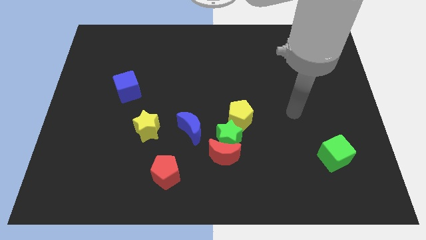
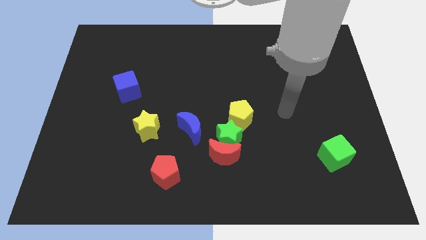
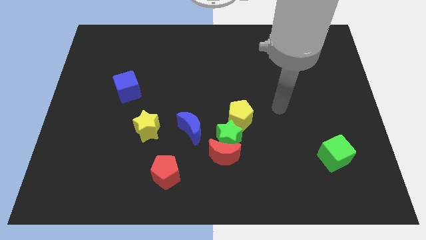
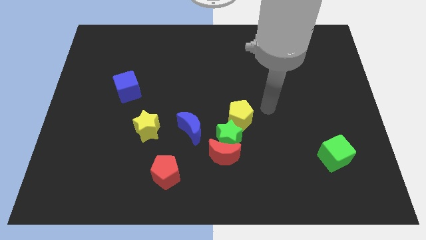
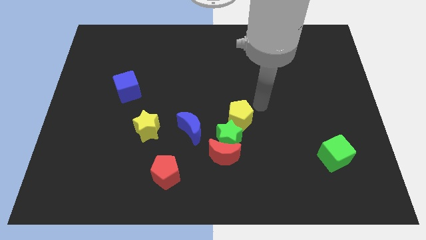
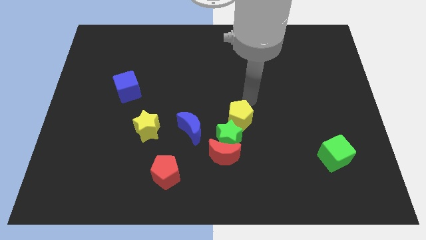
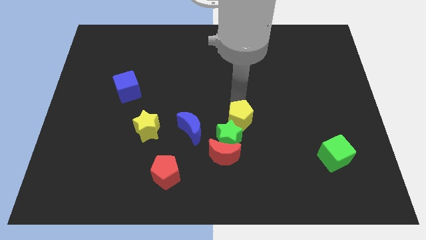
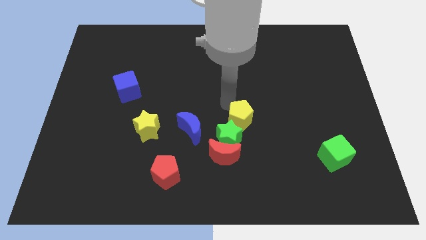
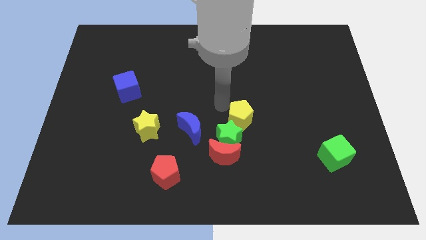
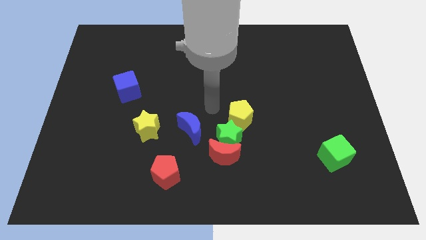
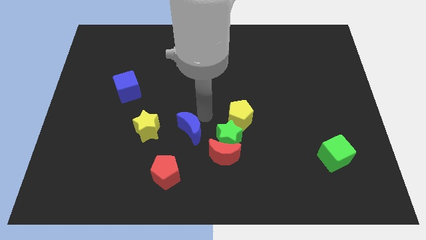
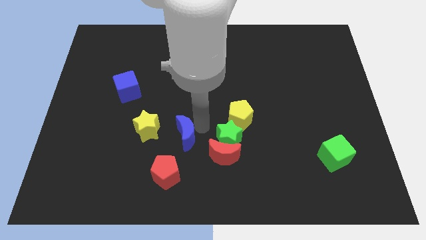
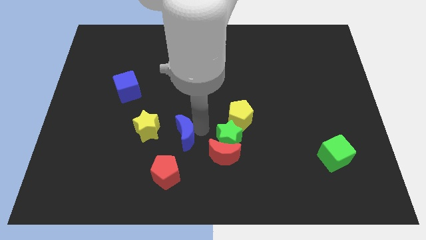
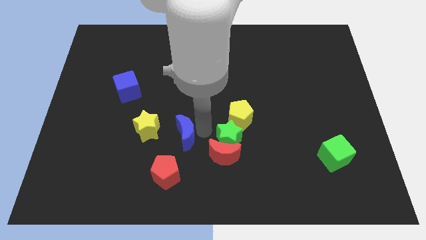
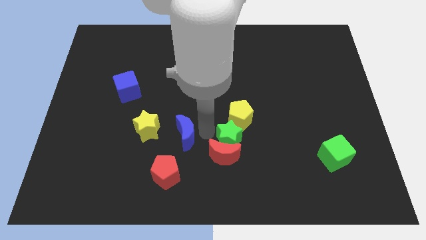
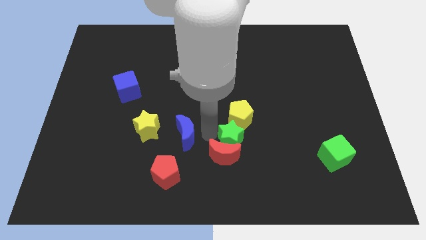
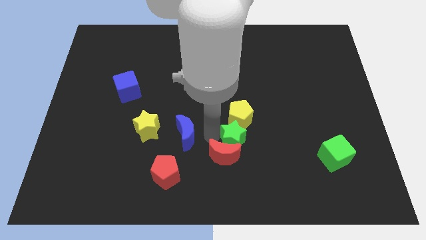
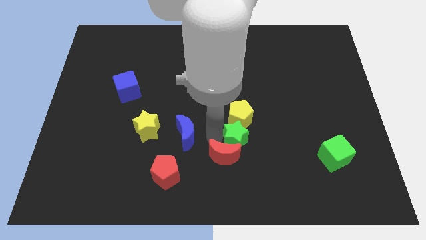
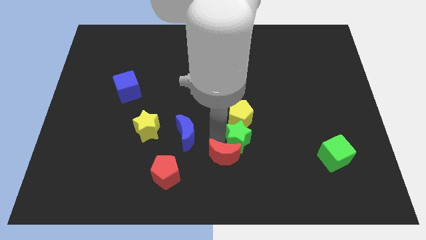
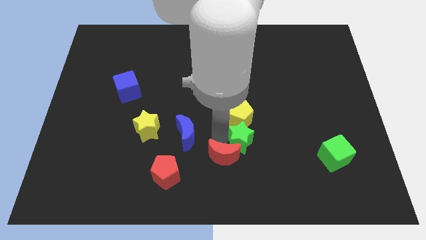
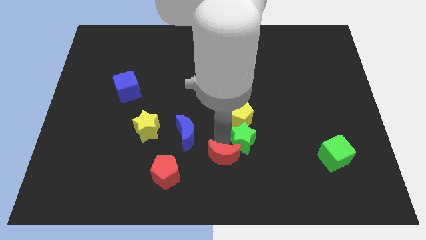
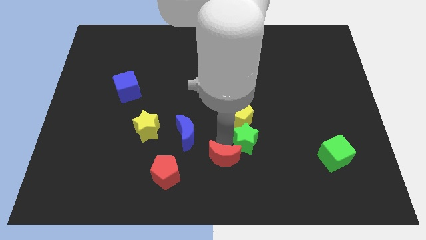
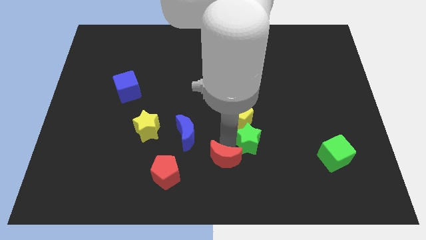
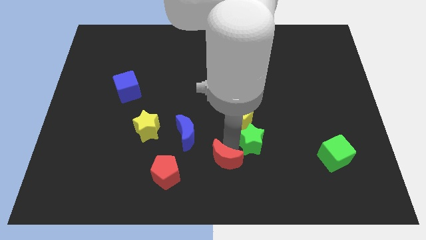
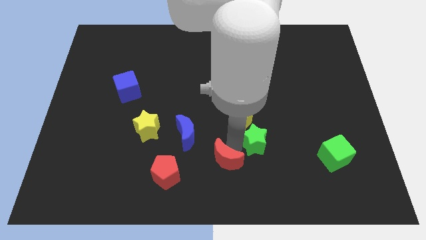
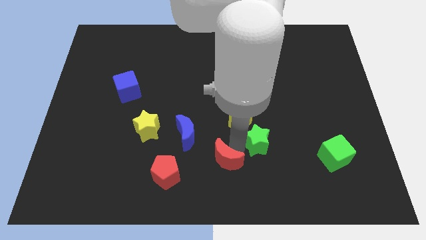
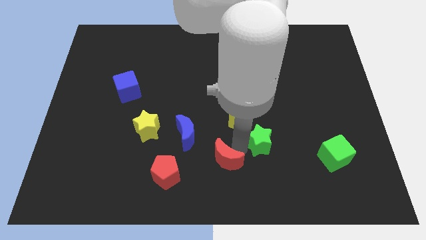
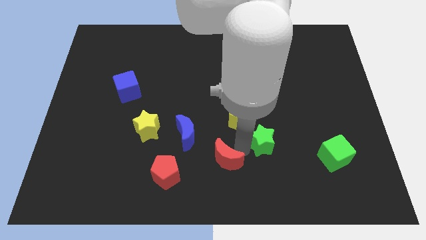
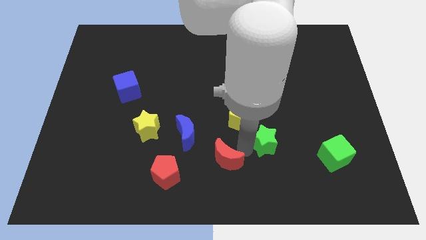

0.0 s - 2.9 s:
move the green star away from the red moon, yellow pentagon, and blue moon

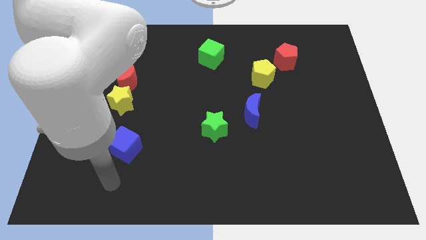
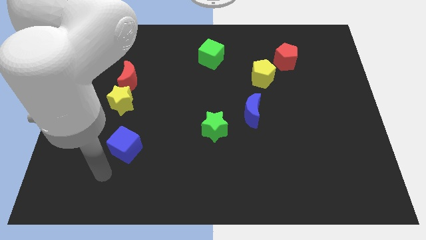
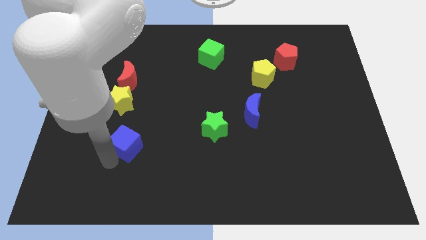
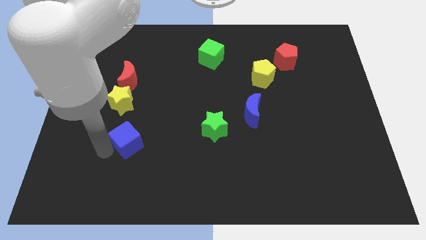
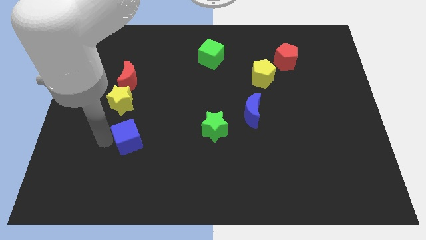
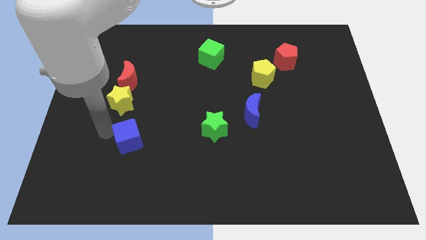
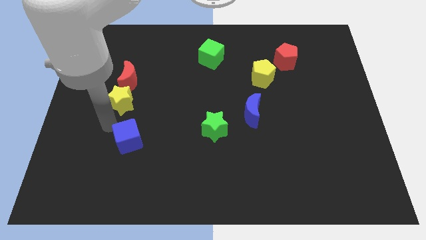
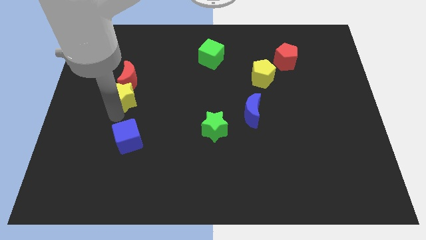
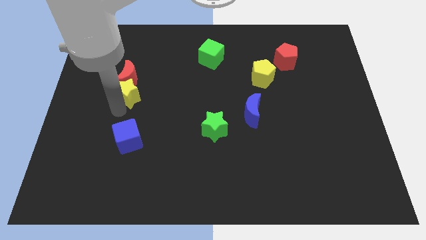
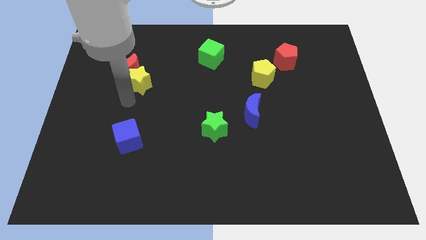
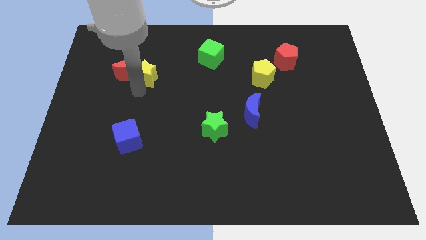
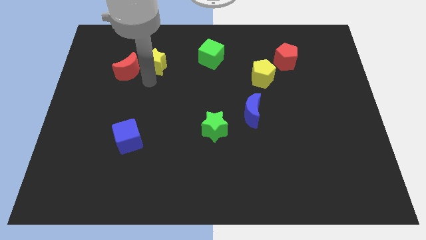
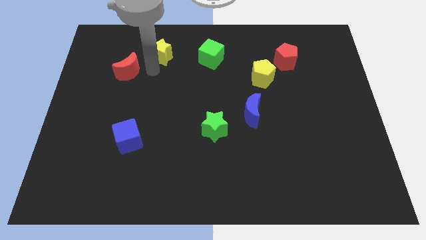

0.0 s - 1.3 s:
separate the red moon from the yellow star

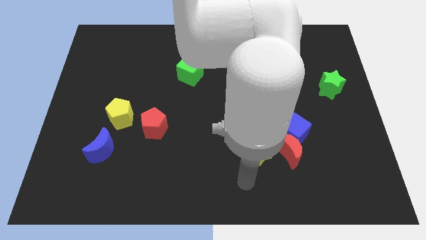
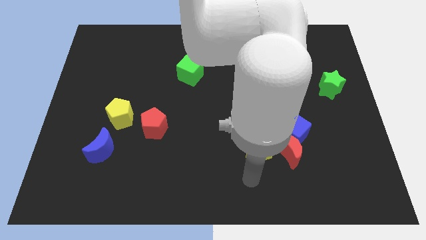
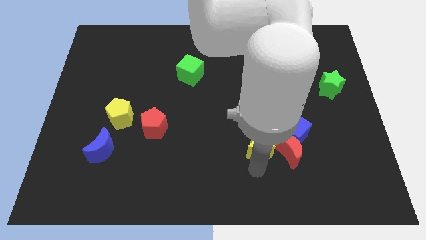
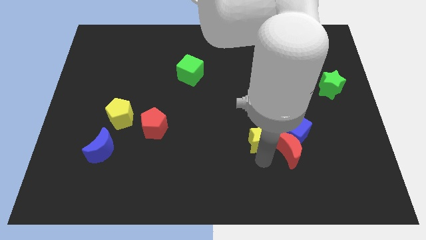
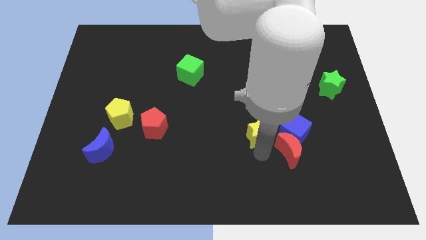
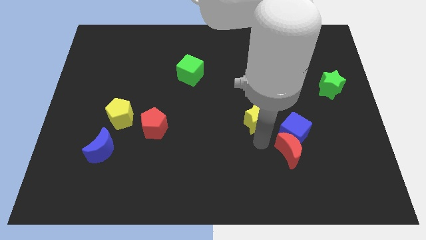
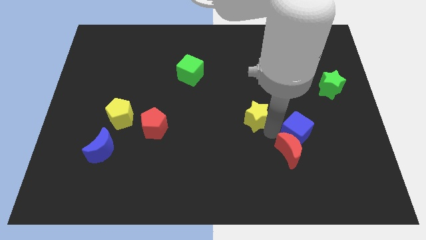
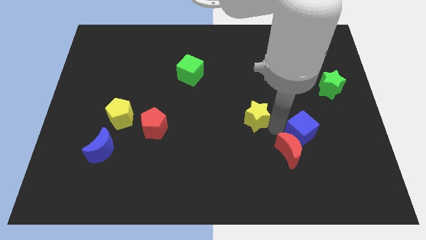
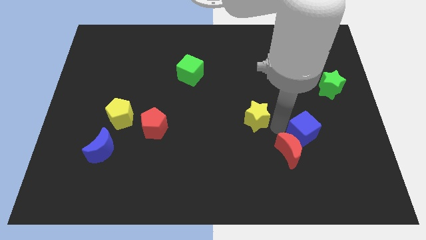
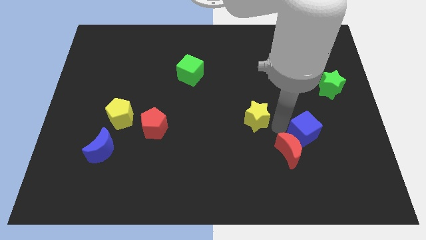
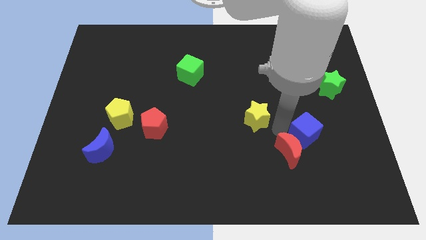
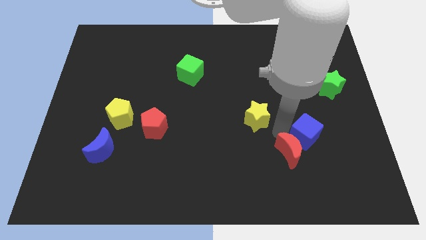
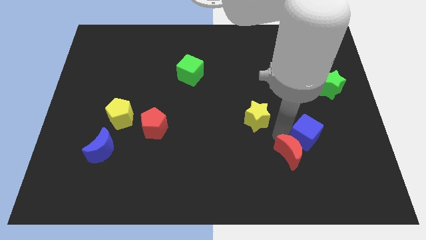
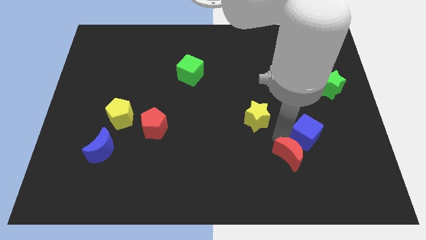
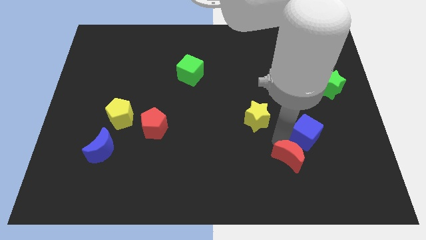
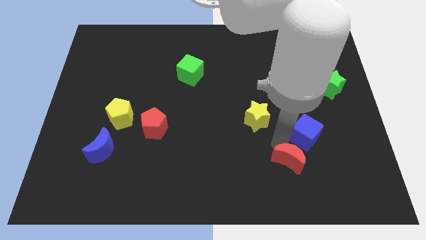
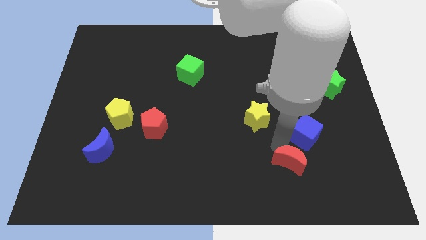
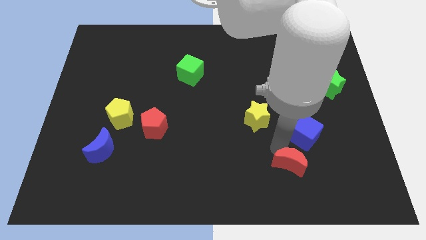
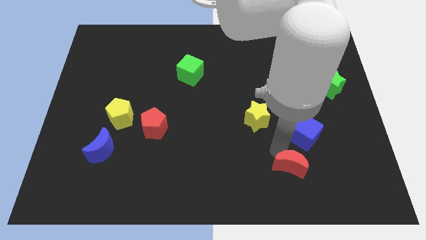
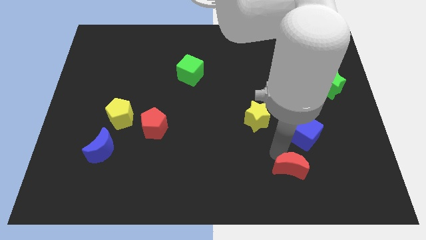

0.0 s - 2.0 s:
pull the red moon apart from the blue cube and yellow star

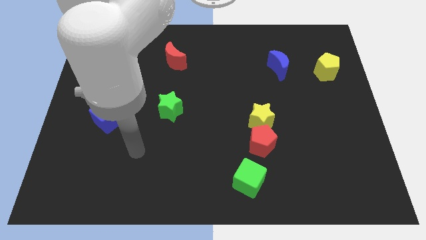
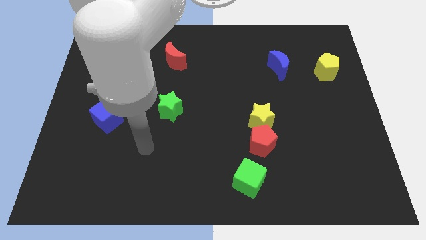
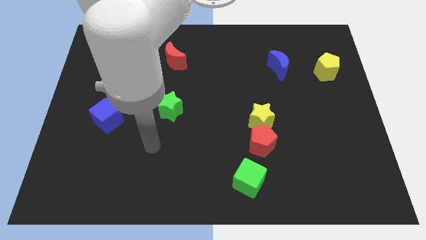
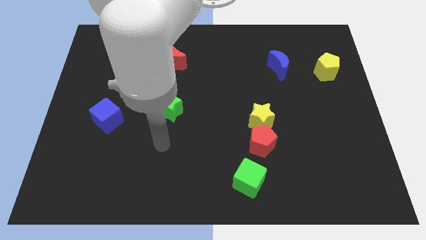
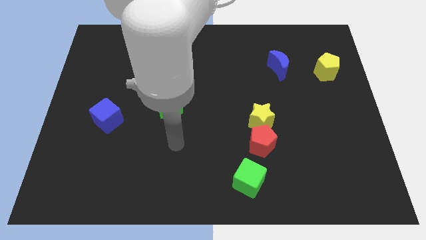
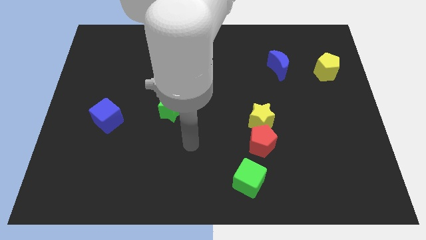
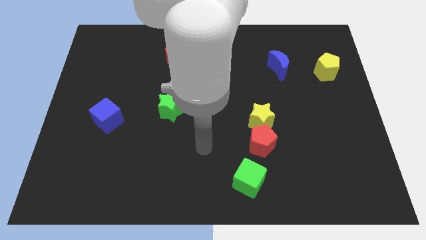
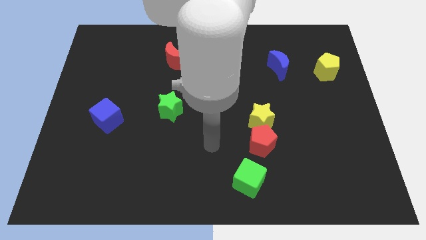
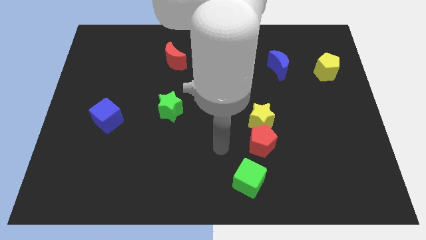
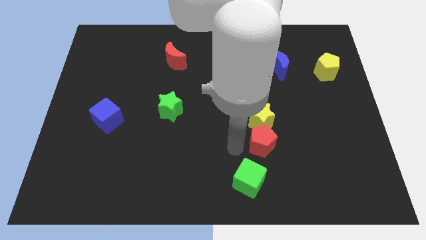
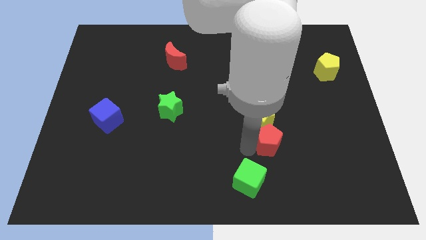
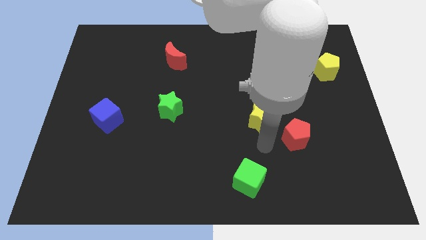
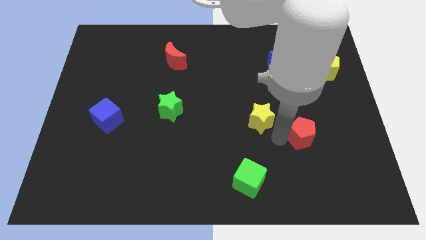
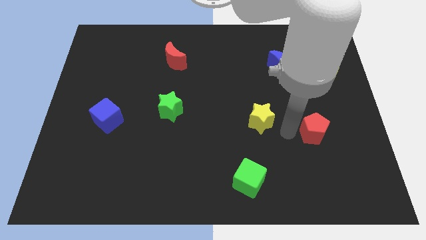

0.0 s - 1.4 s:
move the yellow star away from the red pentagon

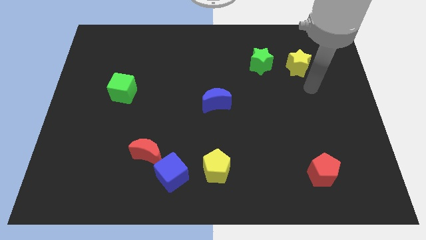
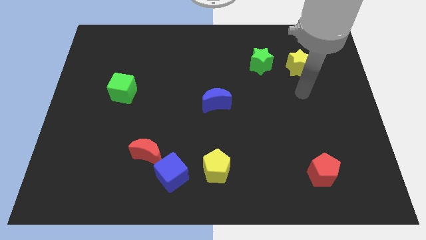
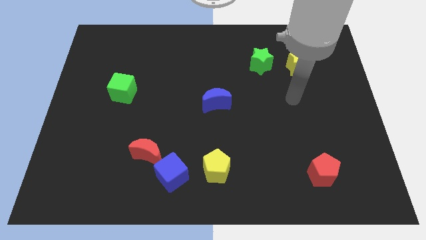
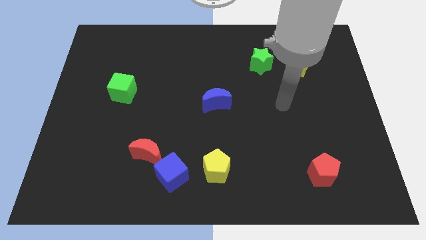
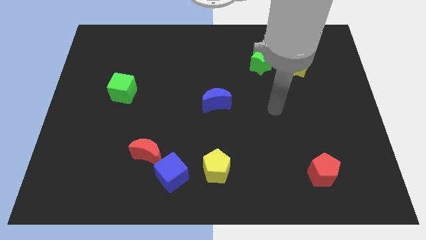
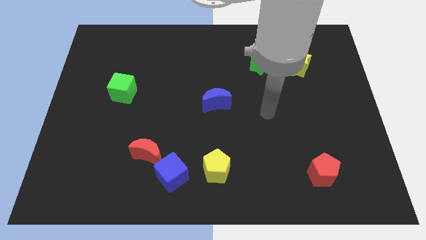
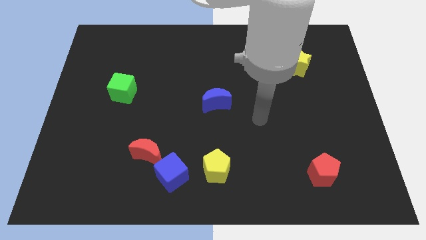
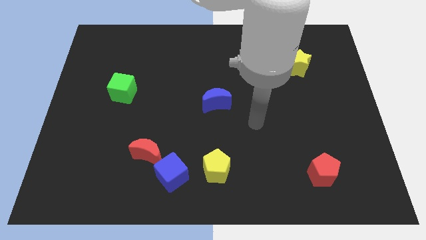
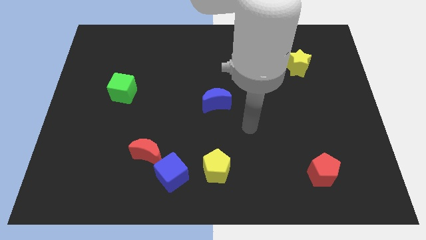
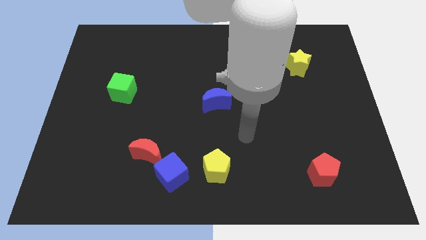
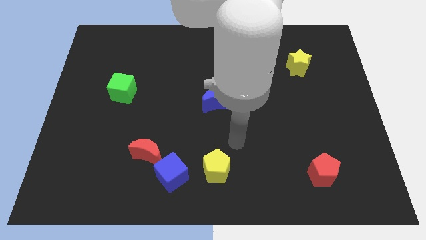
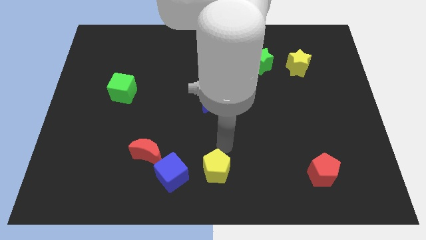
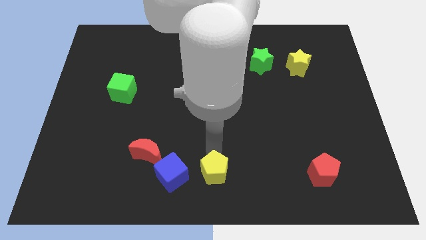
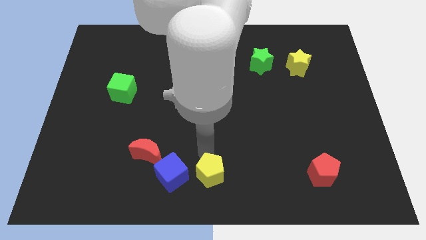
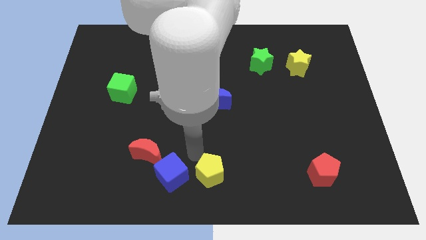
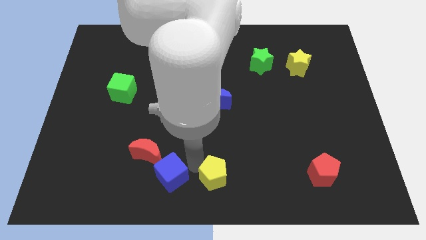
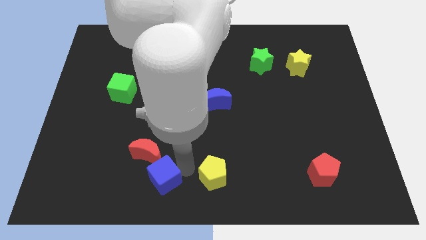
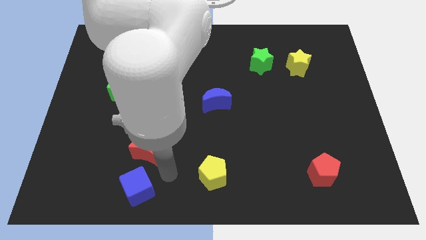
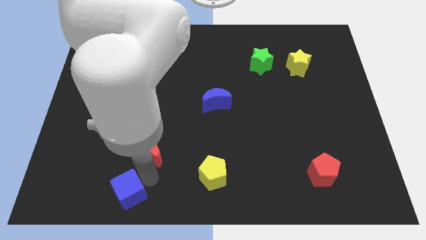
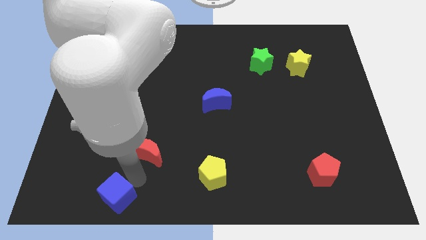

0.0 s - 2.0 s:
pull the red moon apart from the blue cube
